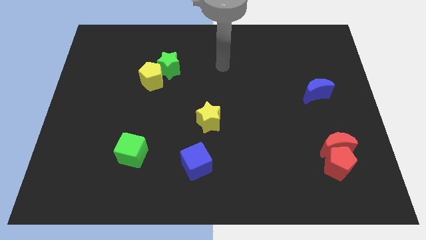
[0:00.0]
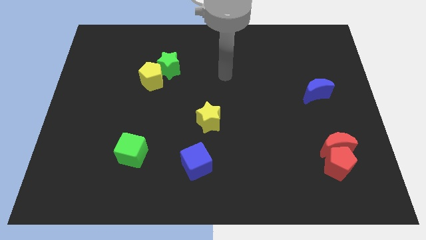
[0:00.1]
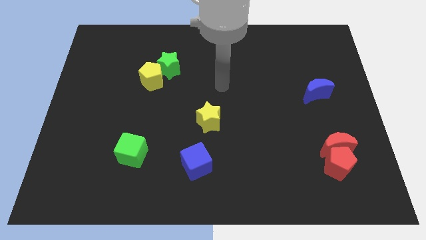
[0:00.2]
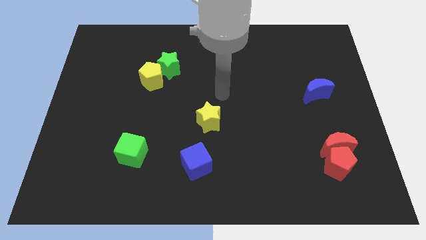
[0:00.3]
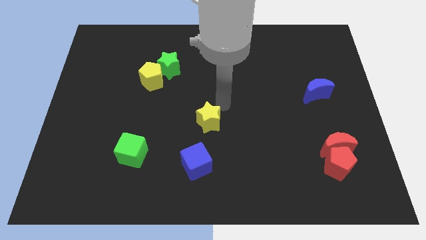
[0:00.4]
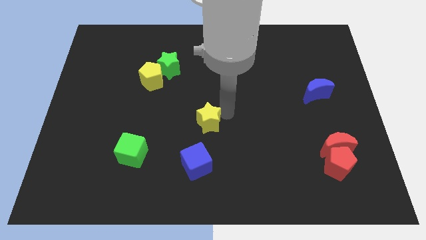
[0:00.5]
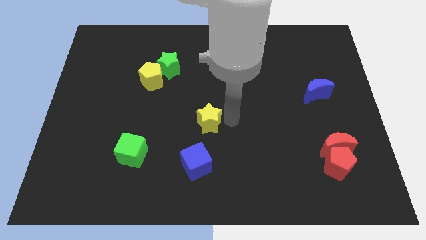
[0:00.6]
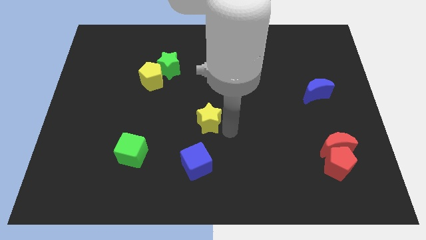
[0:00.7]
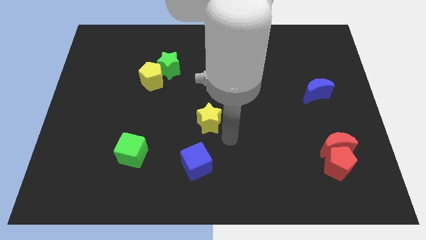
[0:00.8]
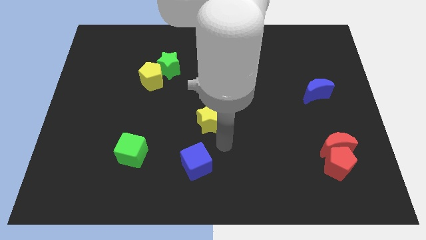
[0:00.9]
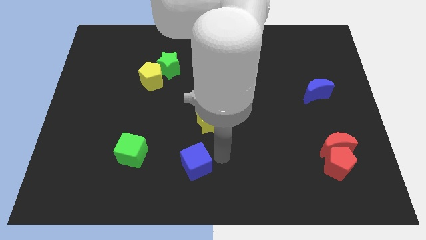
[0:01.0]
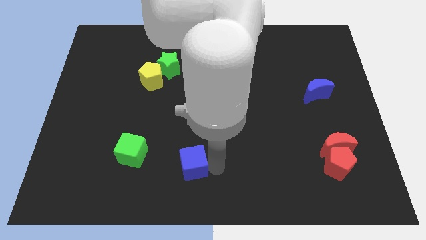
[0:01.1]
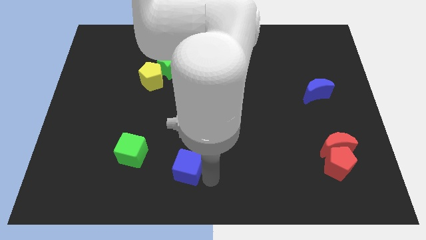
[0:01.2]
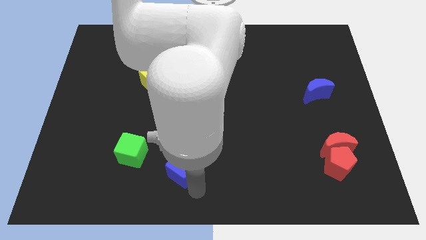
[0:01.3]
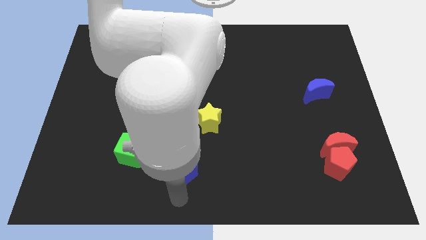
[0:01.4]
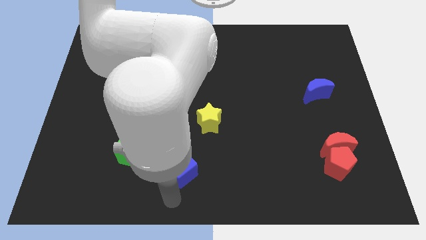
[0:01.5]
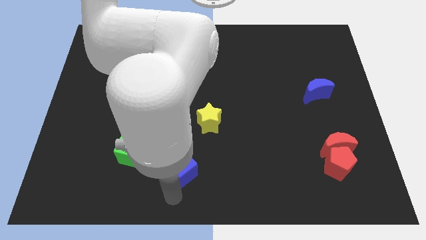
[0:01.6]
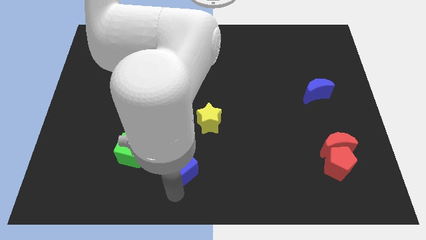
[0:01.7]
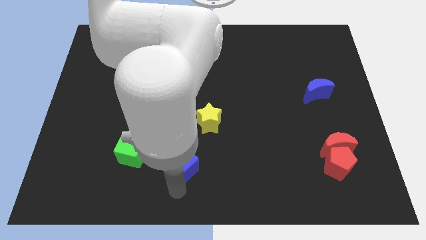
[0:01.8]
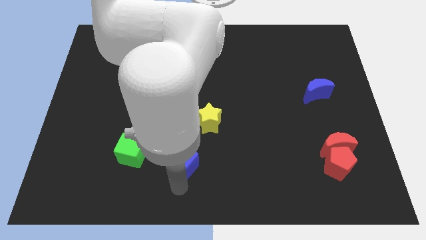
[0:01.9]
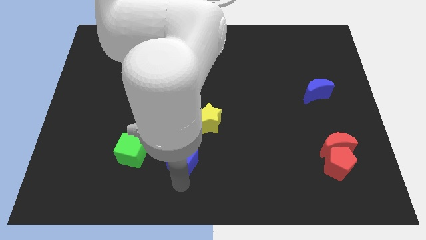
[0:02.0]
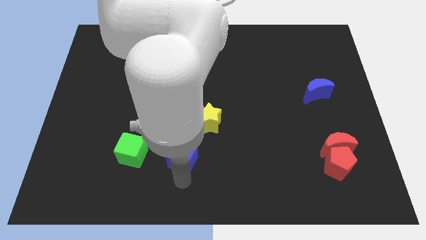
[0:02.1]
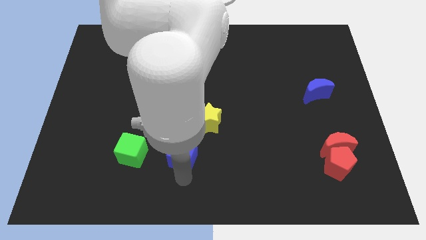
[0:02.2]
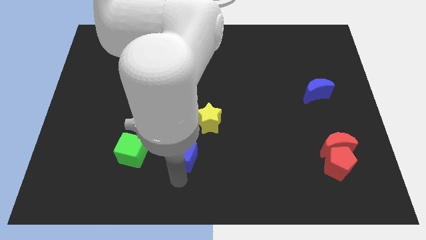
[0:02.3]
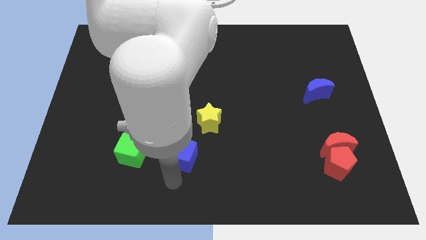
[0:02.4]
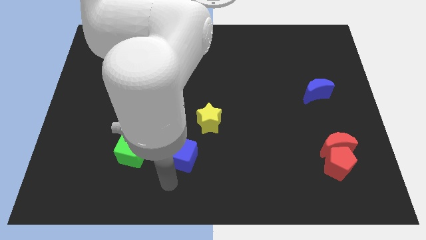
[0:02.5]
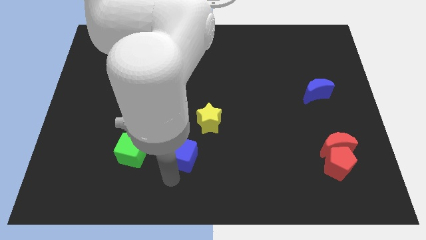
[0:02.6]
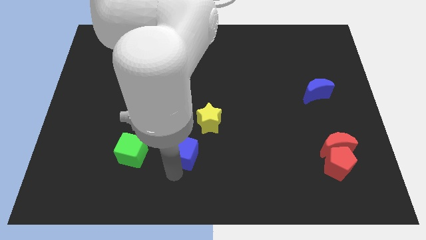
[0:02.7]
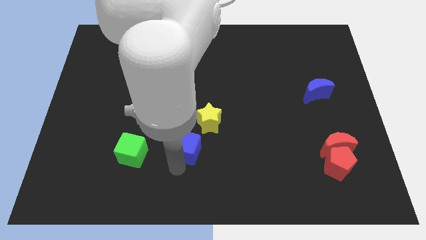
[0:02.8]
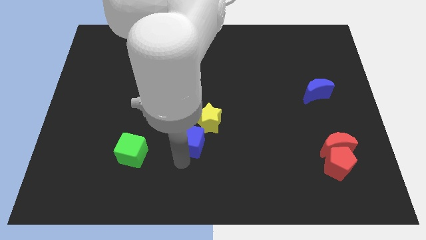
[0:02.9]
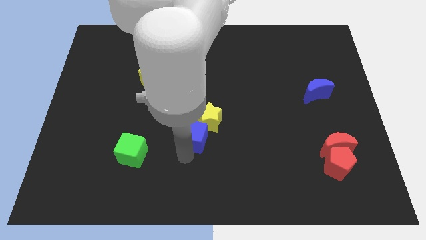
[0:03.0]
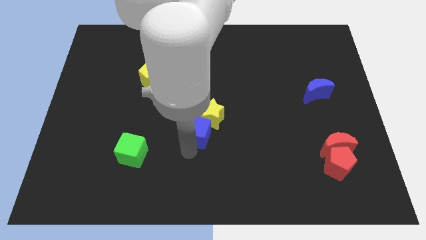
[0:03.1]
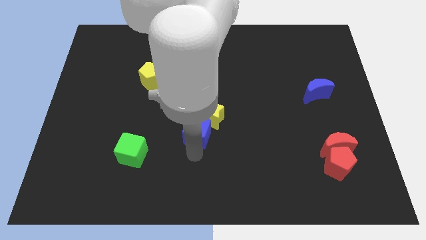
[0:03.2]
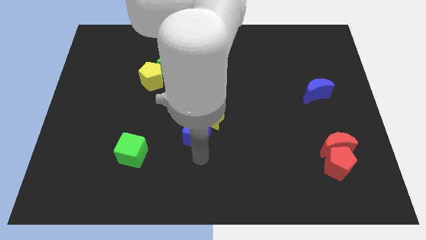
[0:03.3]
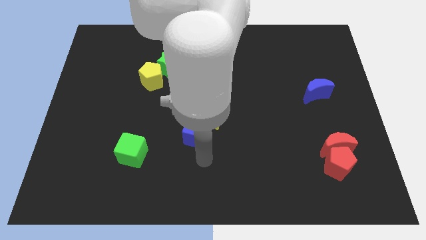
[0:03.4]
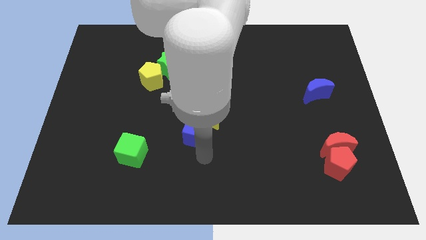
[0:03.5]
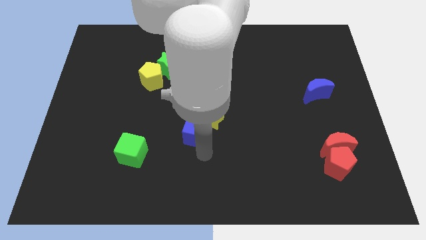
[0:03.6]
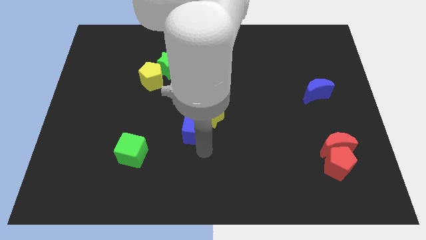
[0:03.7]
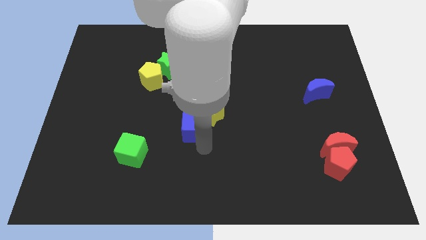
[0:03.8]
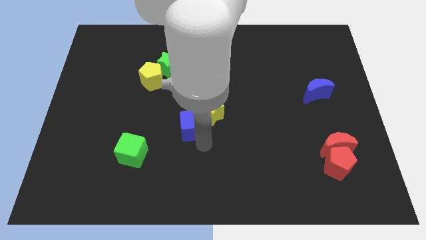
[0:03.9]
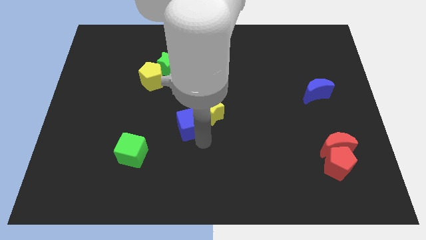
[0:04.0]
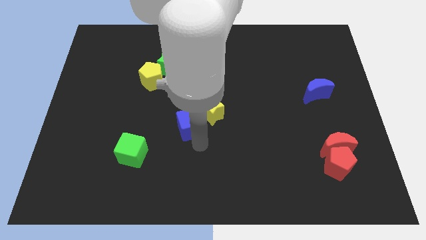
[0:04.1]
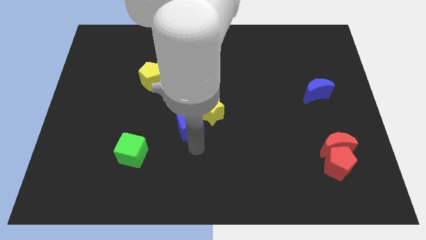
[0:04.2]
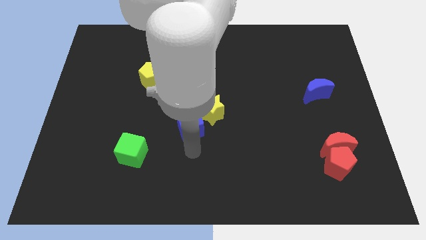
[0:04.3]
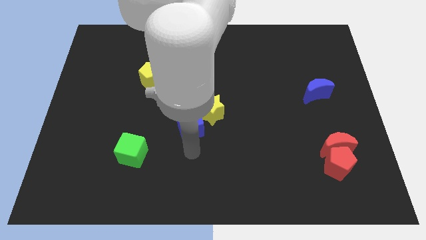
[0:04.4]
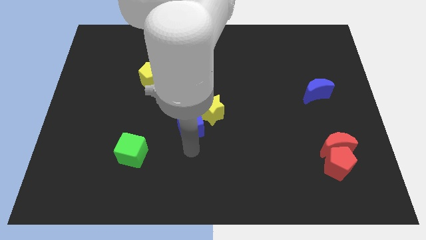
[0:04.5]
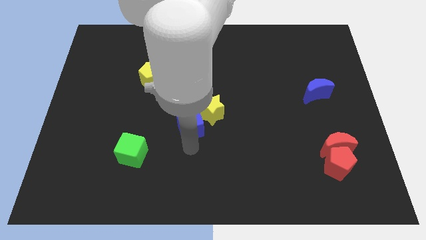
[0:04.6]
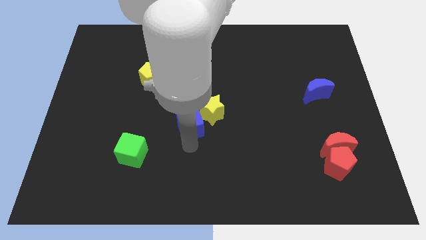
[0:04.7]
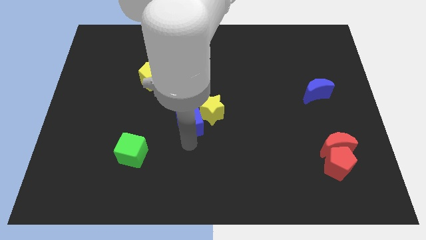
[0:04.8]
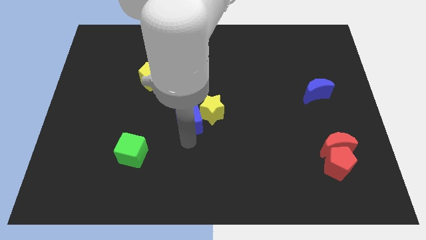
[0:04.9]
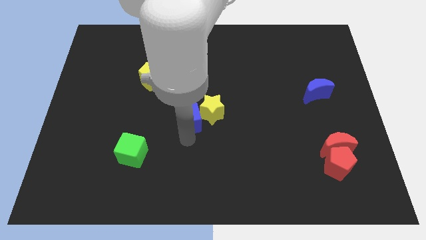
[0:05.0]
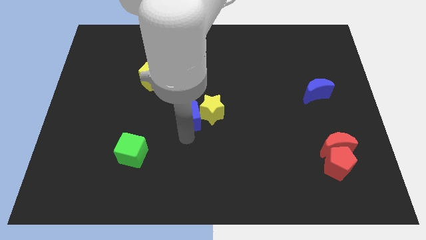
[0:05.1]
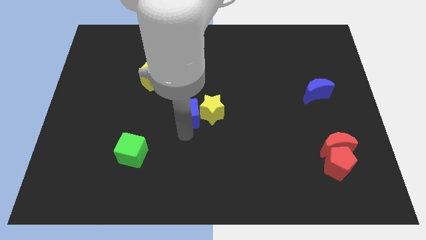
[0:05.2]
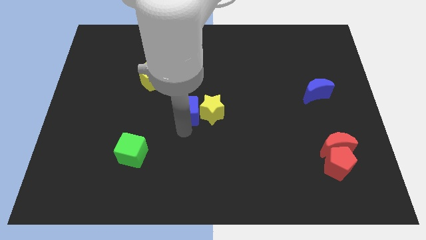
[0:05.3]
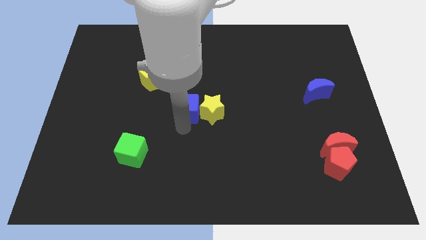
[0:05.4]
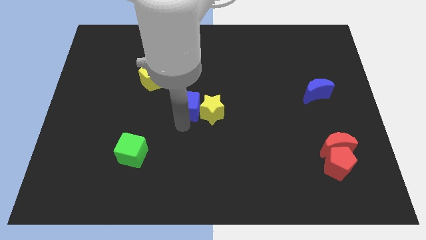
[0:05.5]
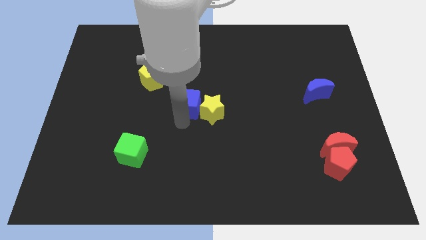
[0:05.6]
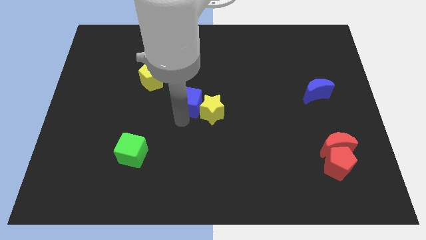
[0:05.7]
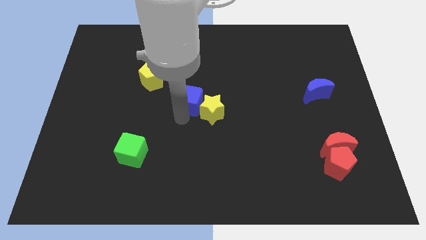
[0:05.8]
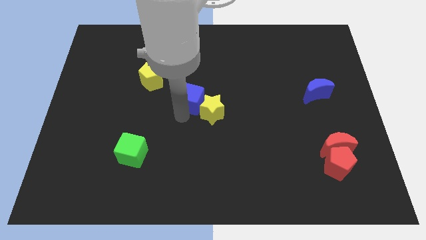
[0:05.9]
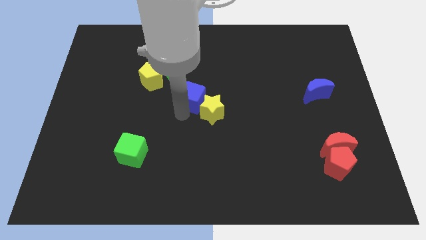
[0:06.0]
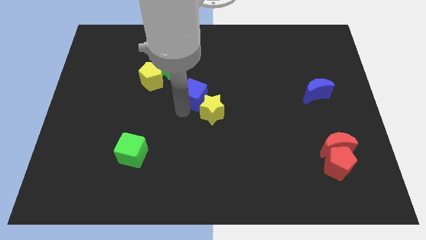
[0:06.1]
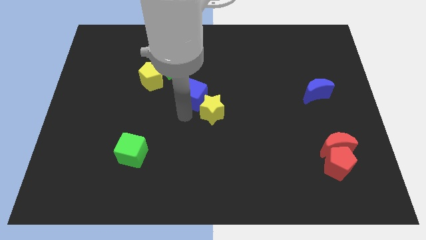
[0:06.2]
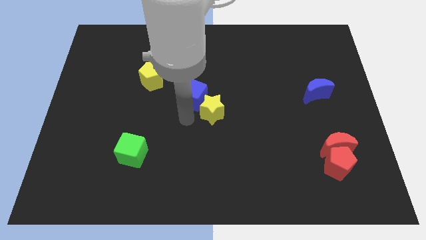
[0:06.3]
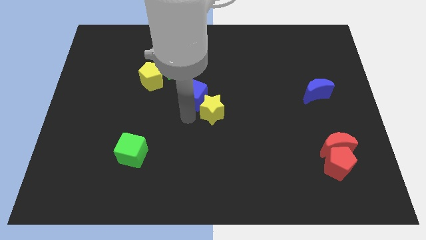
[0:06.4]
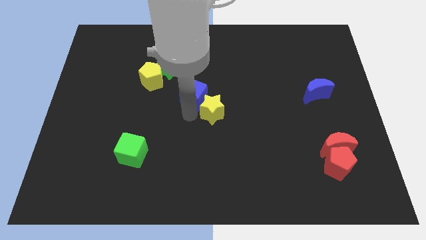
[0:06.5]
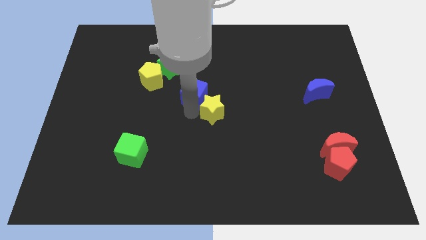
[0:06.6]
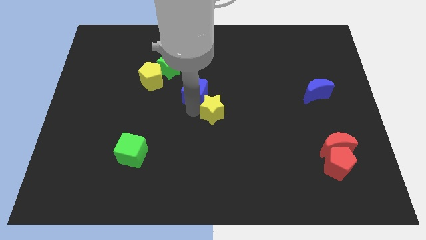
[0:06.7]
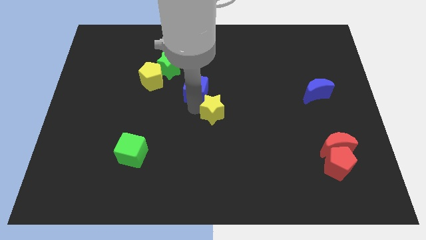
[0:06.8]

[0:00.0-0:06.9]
slide the blue cube up

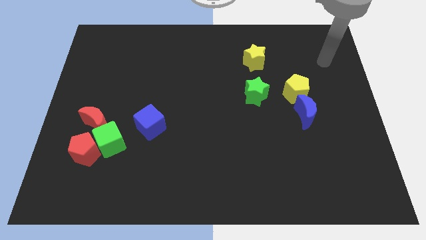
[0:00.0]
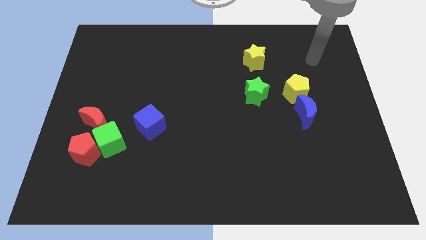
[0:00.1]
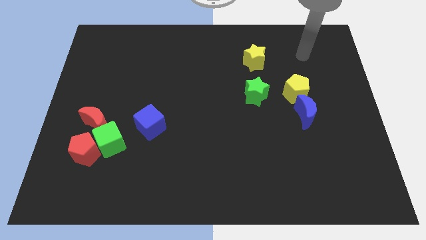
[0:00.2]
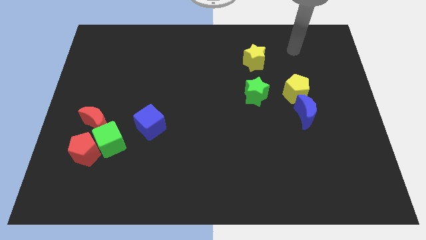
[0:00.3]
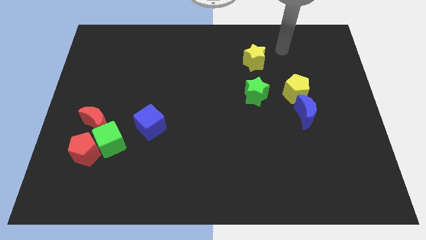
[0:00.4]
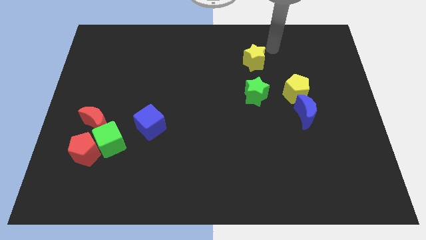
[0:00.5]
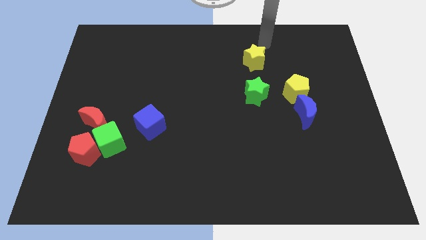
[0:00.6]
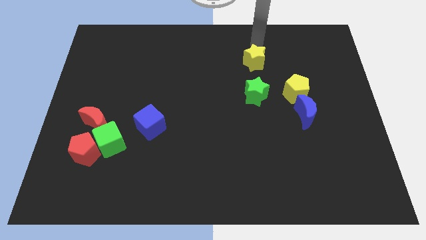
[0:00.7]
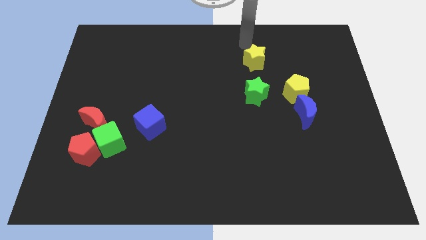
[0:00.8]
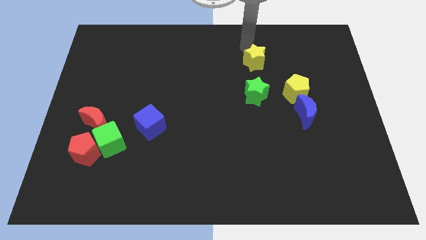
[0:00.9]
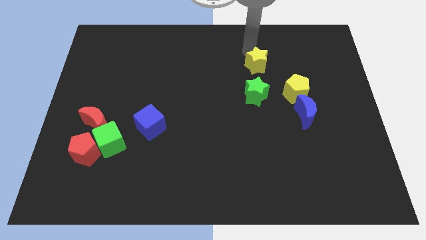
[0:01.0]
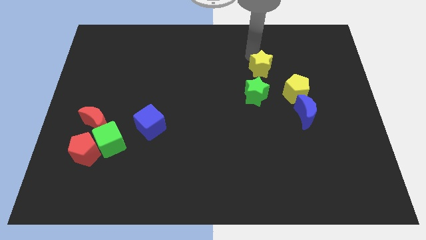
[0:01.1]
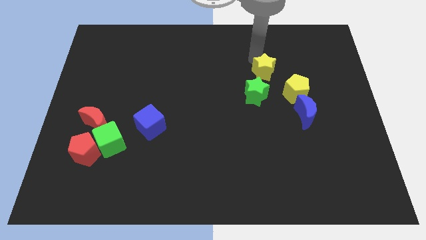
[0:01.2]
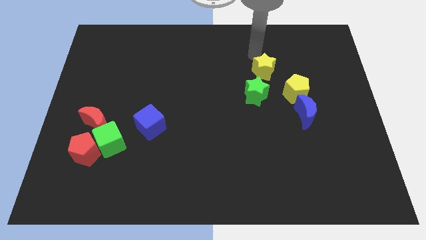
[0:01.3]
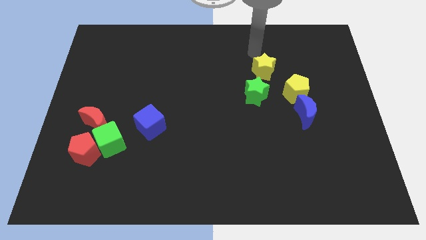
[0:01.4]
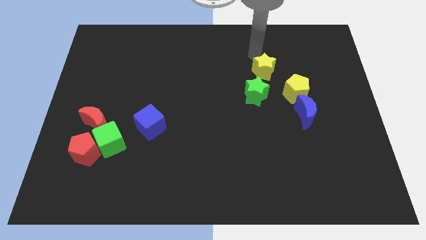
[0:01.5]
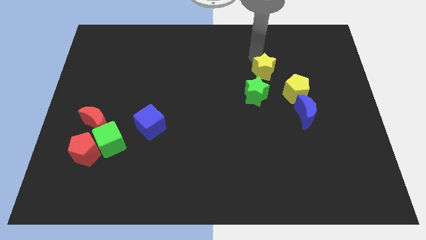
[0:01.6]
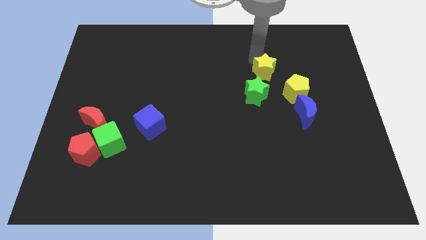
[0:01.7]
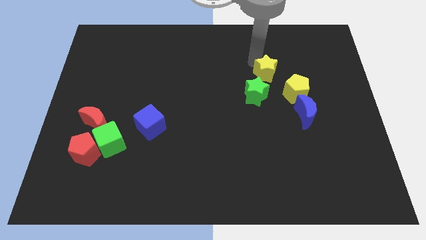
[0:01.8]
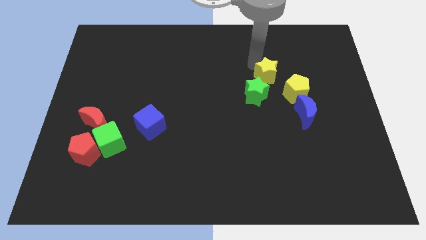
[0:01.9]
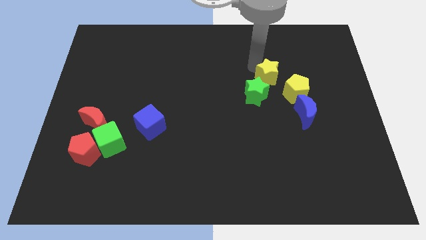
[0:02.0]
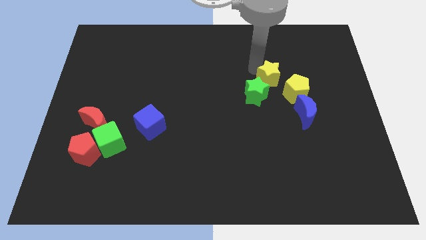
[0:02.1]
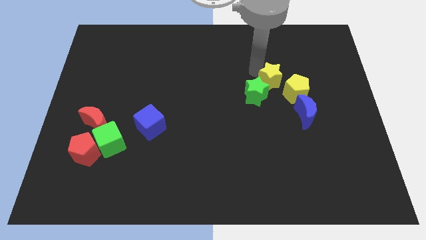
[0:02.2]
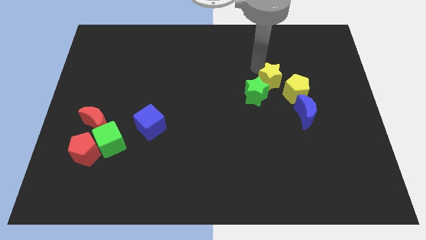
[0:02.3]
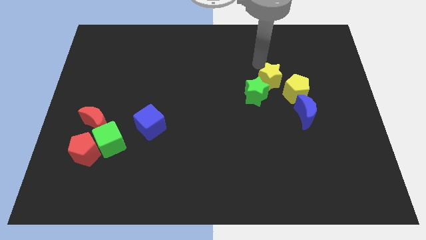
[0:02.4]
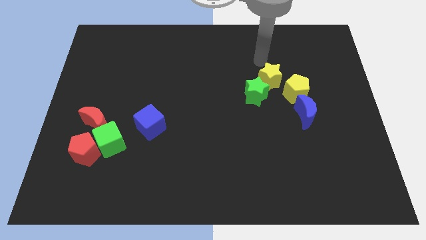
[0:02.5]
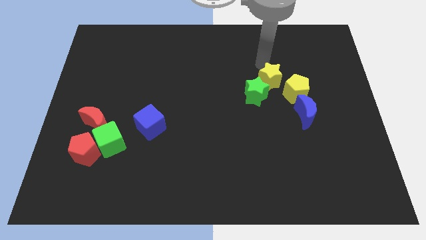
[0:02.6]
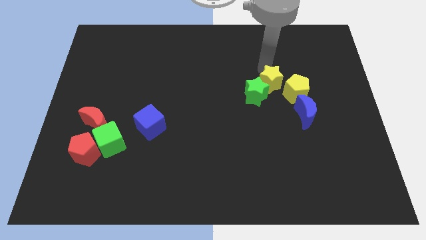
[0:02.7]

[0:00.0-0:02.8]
slightly slide the yellow star downwards
